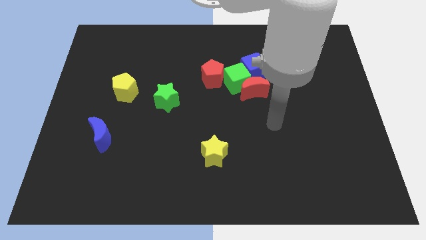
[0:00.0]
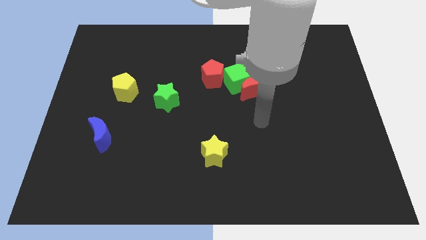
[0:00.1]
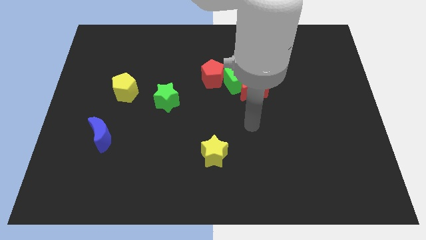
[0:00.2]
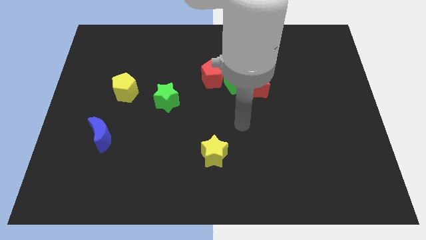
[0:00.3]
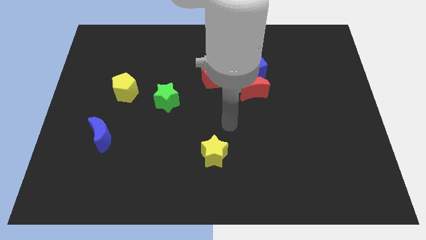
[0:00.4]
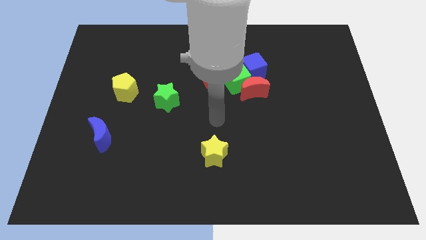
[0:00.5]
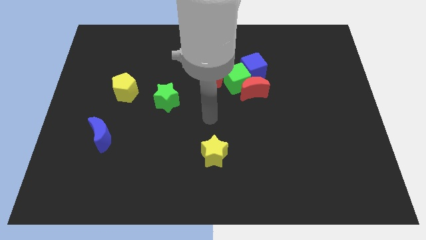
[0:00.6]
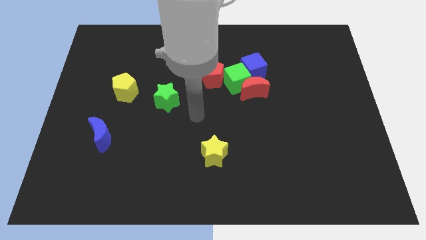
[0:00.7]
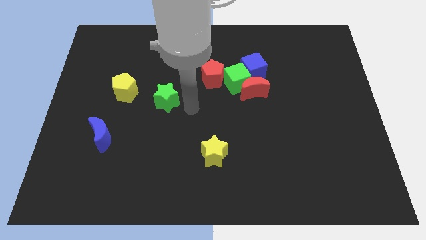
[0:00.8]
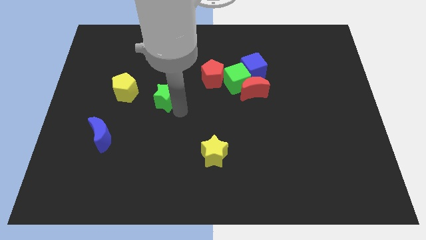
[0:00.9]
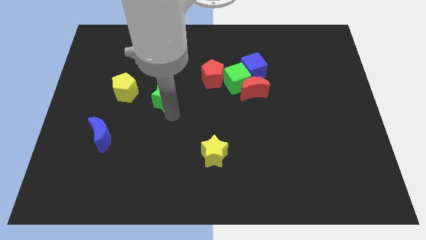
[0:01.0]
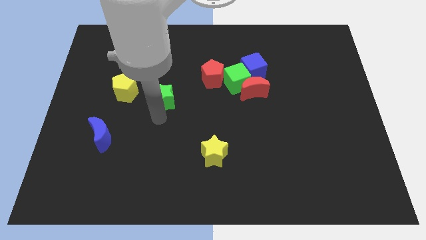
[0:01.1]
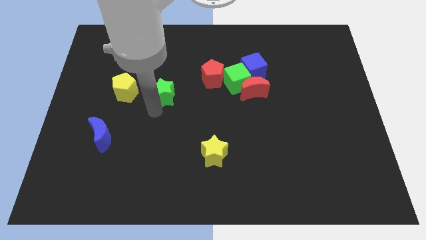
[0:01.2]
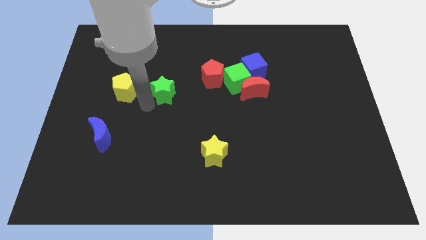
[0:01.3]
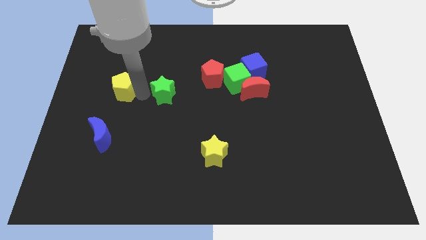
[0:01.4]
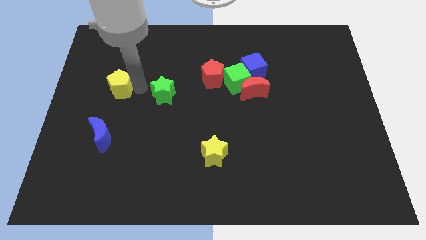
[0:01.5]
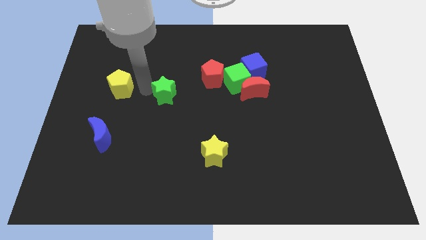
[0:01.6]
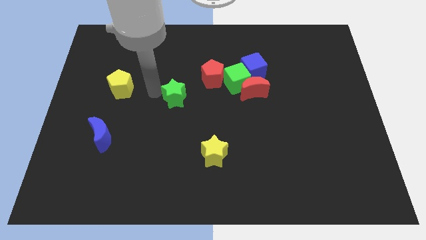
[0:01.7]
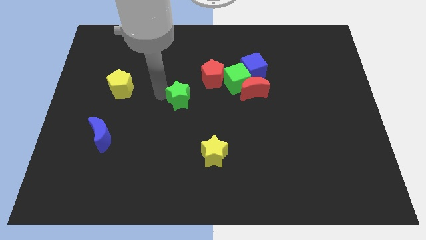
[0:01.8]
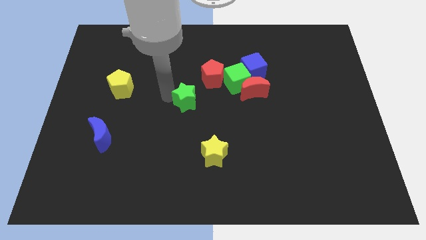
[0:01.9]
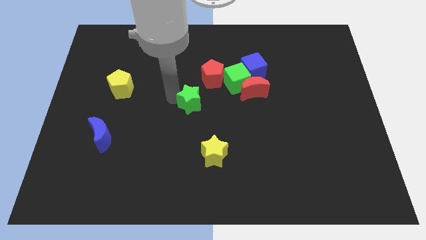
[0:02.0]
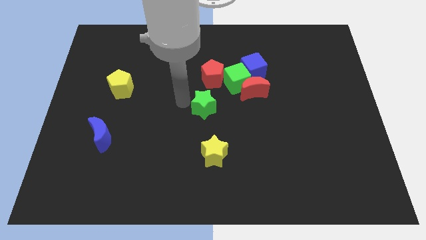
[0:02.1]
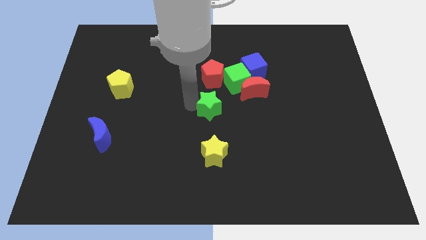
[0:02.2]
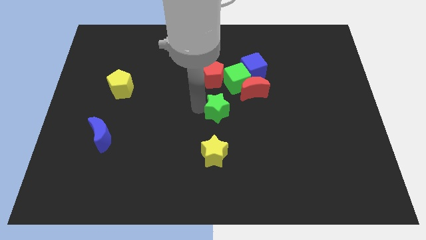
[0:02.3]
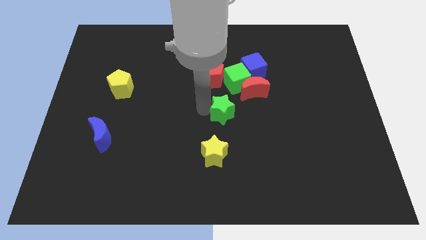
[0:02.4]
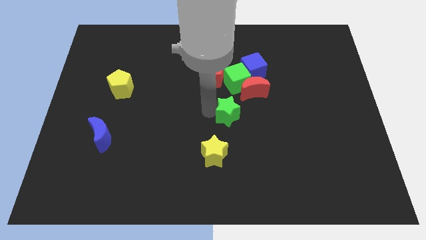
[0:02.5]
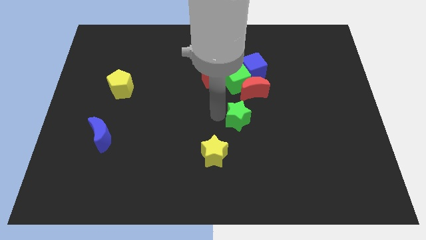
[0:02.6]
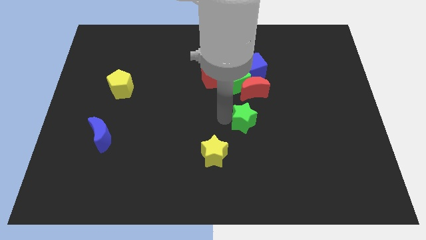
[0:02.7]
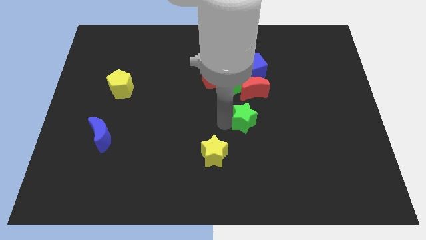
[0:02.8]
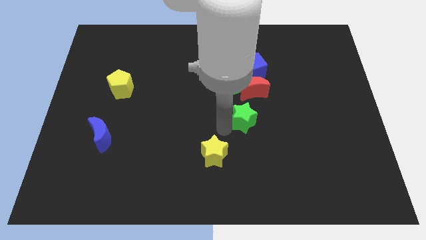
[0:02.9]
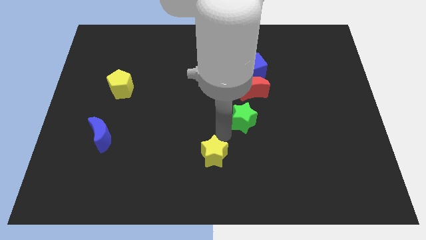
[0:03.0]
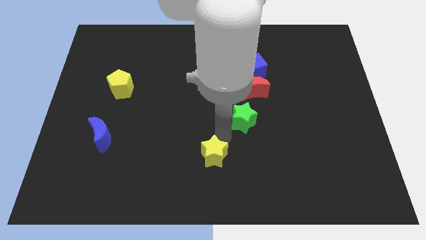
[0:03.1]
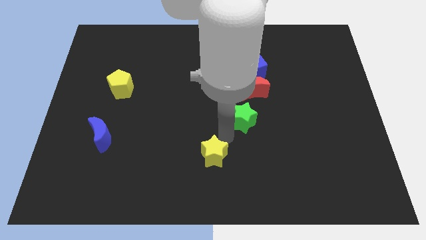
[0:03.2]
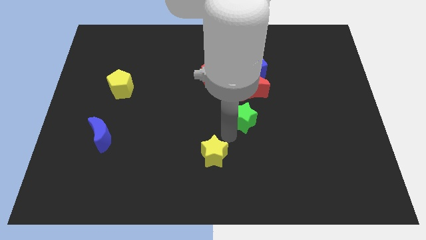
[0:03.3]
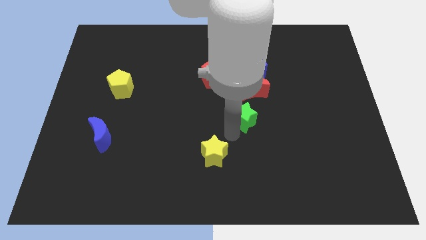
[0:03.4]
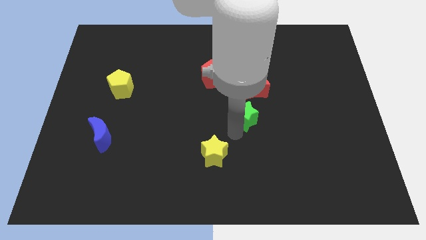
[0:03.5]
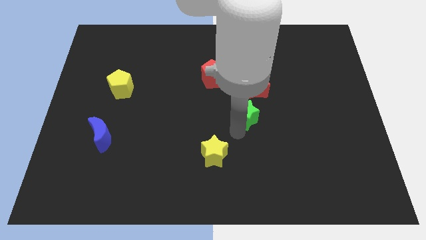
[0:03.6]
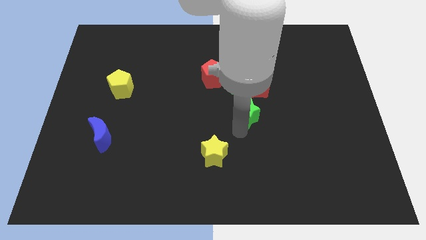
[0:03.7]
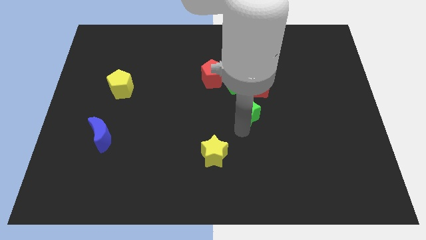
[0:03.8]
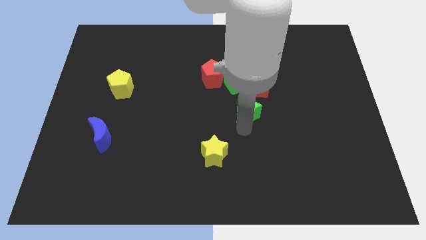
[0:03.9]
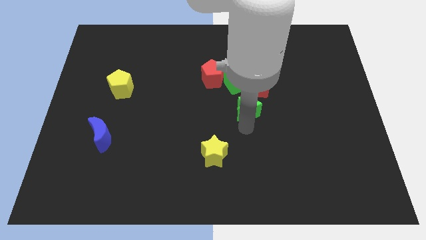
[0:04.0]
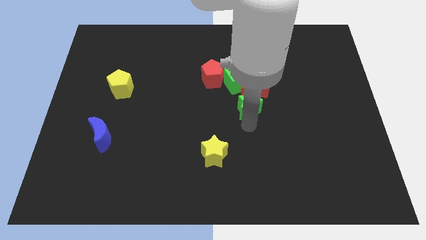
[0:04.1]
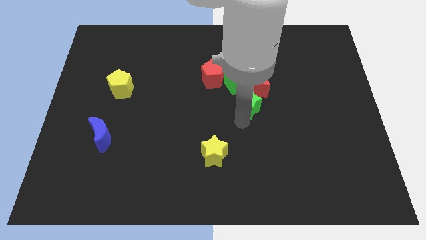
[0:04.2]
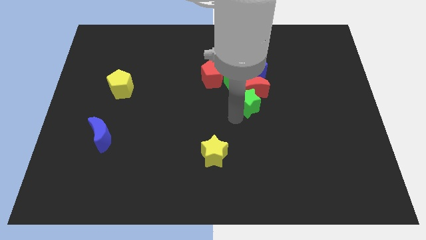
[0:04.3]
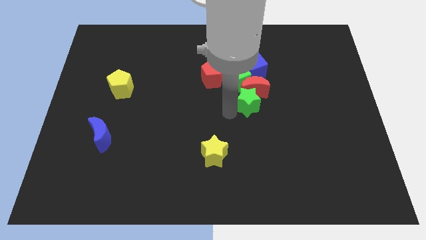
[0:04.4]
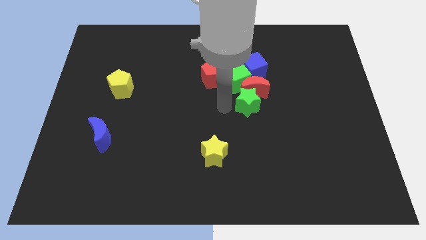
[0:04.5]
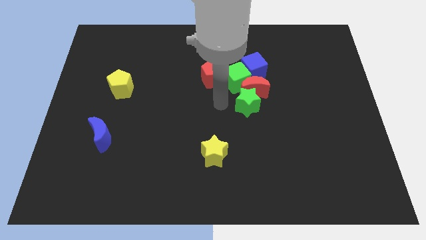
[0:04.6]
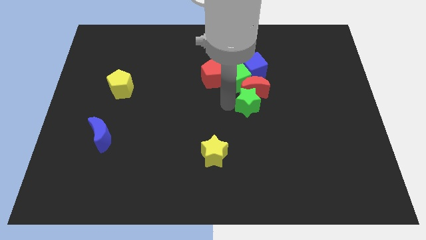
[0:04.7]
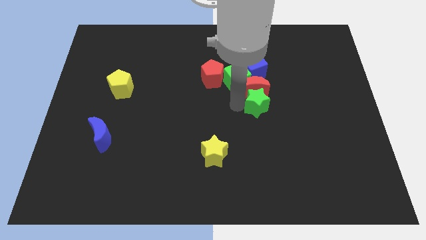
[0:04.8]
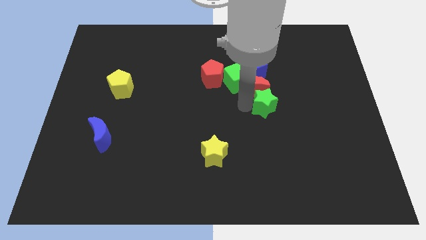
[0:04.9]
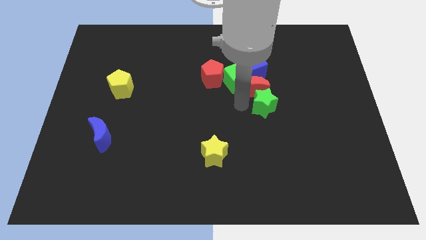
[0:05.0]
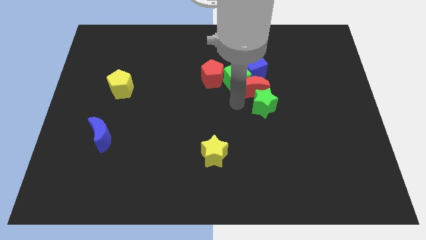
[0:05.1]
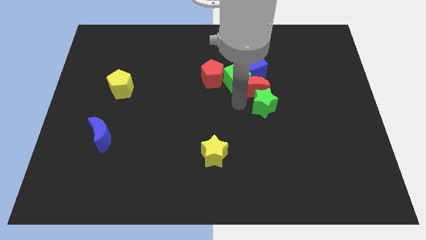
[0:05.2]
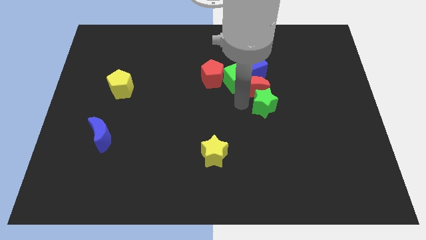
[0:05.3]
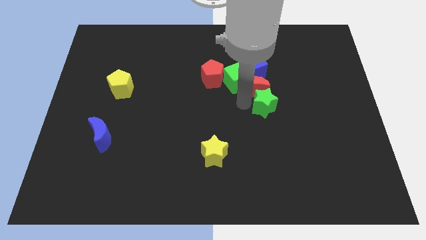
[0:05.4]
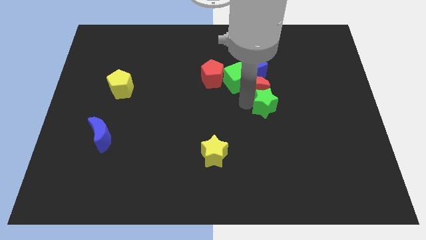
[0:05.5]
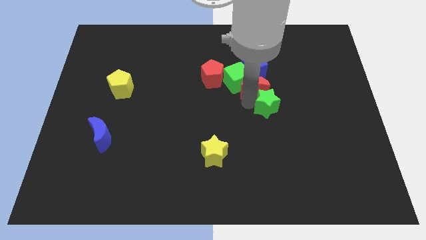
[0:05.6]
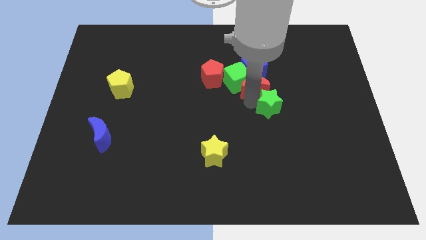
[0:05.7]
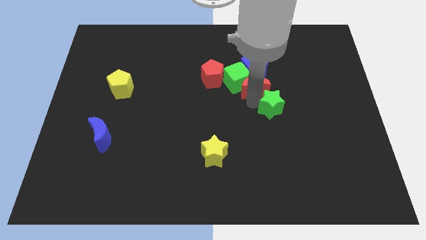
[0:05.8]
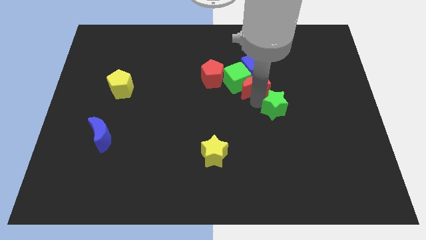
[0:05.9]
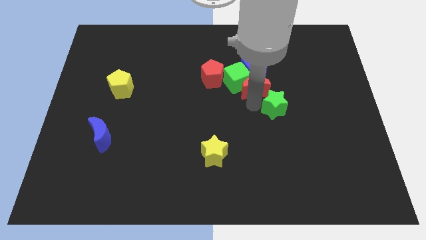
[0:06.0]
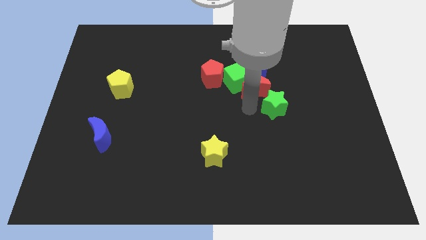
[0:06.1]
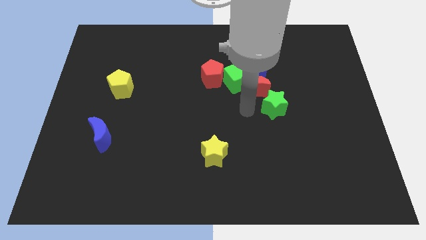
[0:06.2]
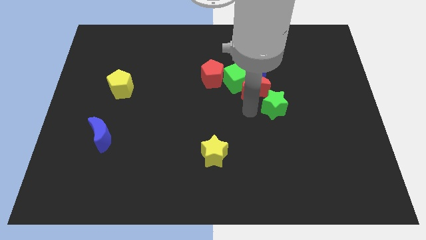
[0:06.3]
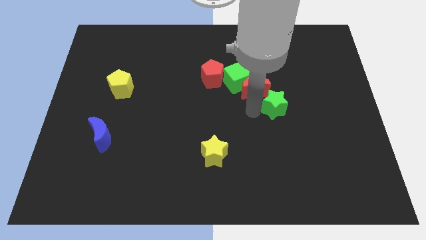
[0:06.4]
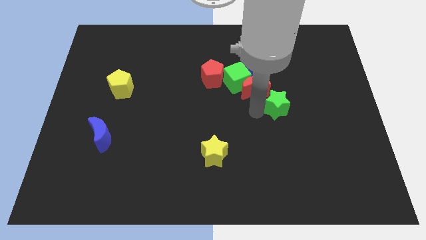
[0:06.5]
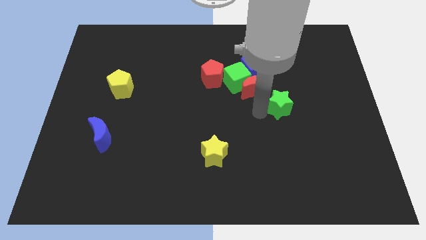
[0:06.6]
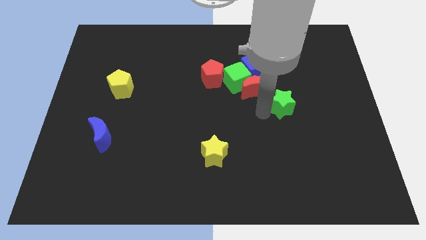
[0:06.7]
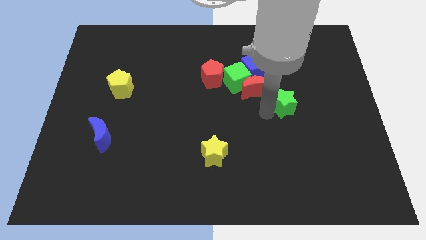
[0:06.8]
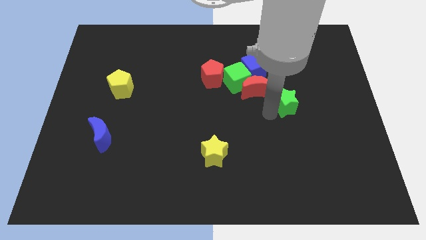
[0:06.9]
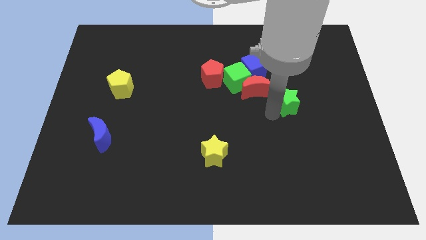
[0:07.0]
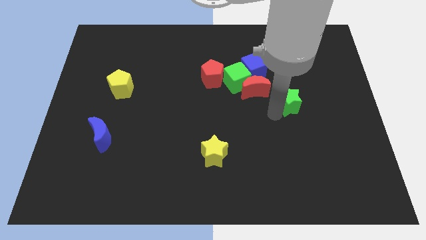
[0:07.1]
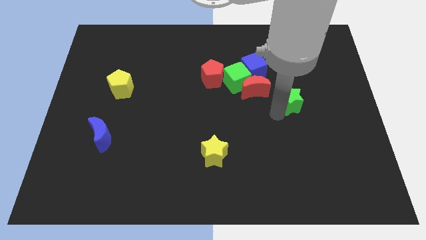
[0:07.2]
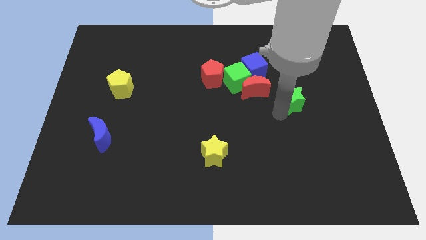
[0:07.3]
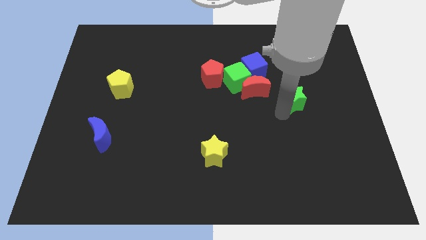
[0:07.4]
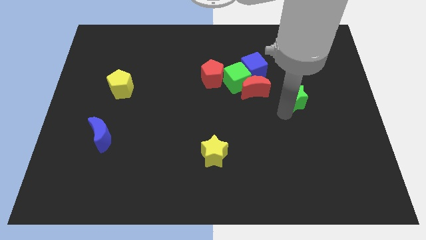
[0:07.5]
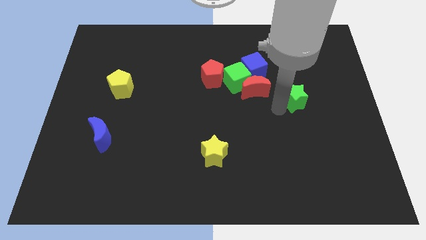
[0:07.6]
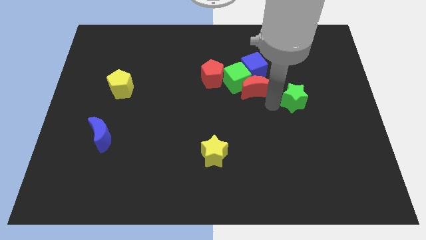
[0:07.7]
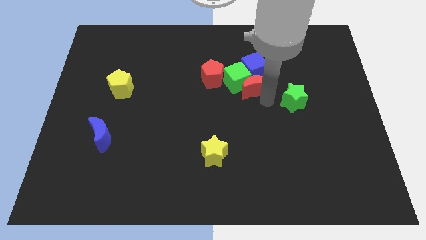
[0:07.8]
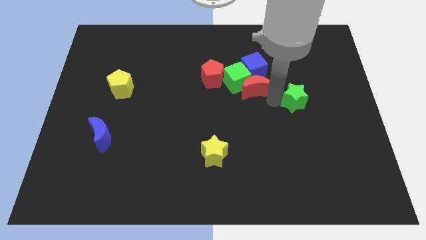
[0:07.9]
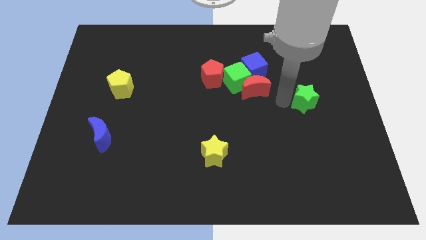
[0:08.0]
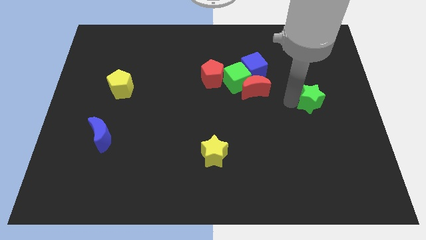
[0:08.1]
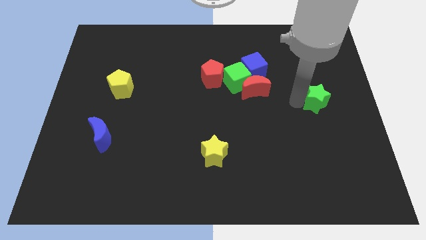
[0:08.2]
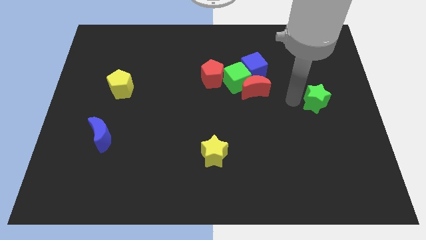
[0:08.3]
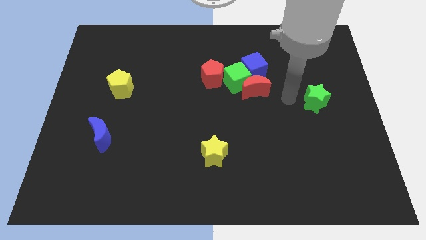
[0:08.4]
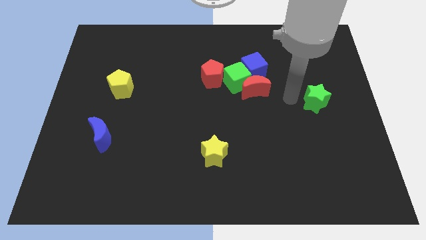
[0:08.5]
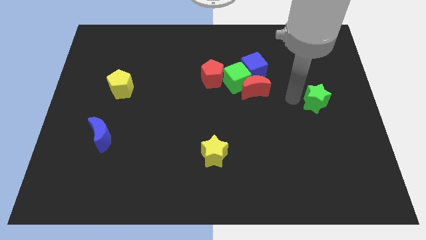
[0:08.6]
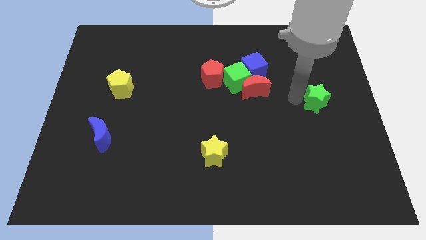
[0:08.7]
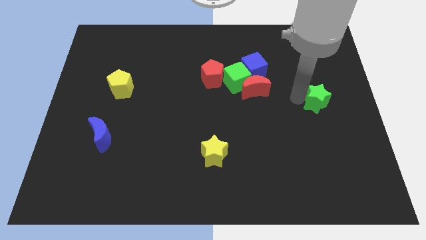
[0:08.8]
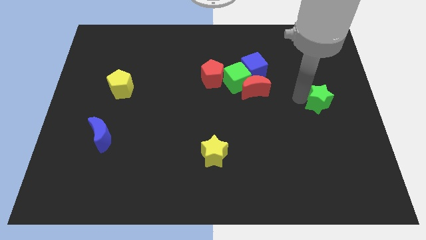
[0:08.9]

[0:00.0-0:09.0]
move the green star to the right side of the board
